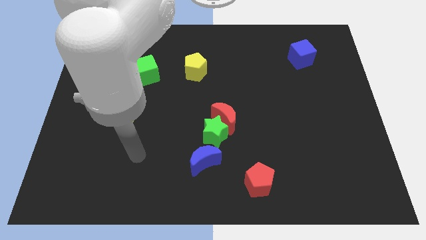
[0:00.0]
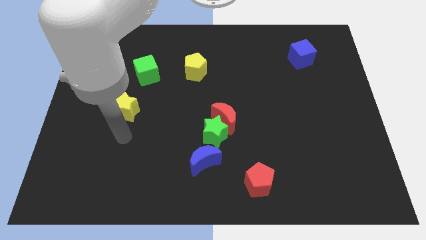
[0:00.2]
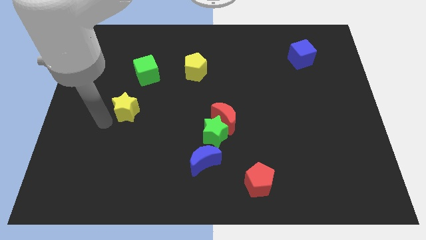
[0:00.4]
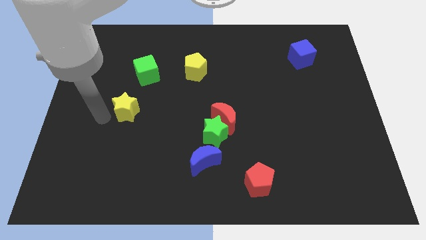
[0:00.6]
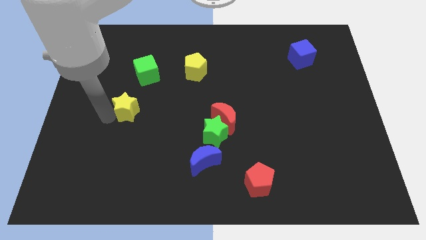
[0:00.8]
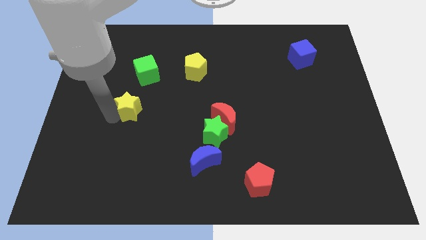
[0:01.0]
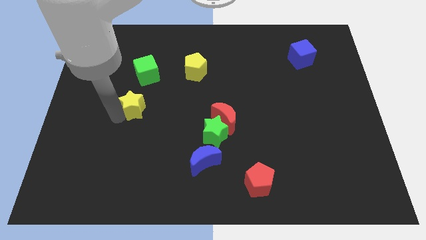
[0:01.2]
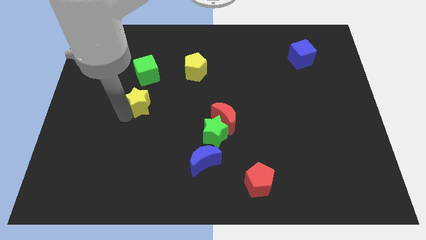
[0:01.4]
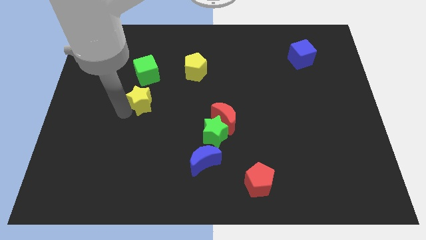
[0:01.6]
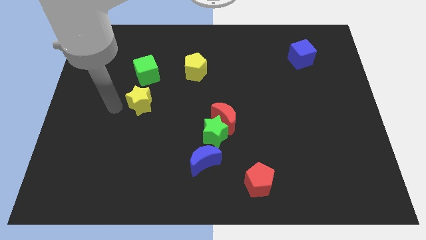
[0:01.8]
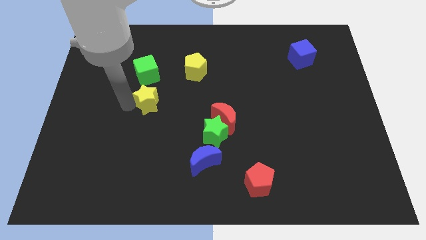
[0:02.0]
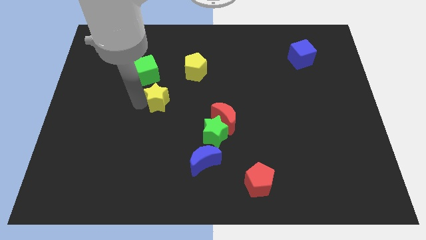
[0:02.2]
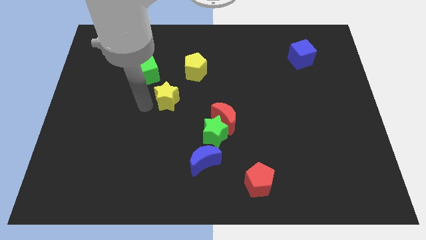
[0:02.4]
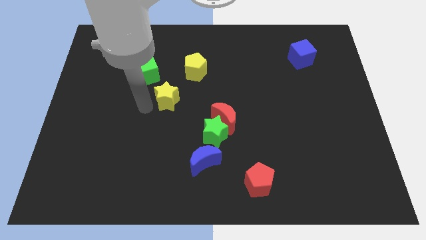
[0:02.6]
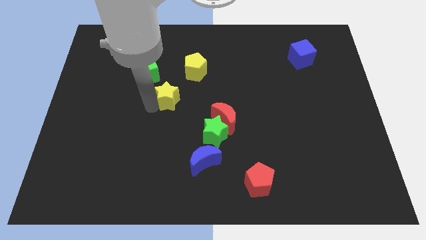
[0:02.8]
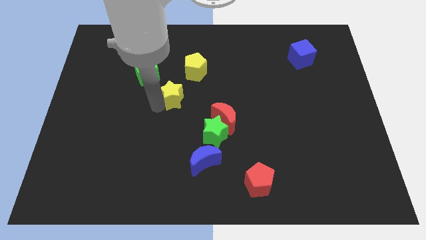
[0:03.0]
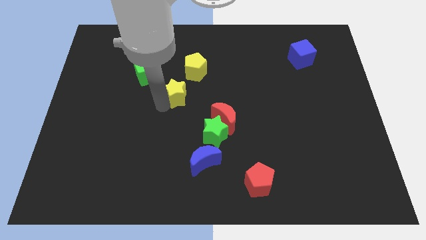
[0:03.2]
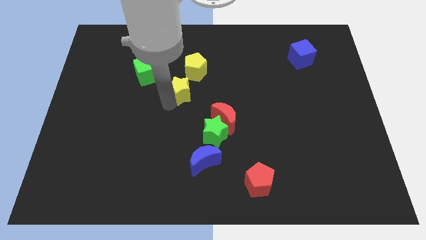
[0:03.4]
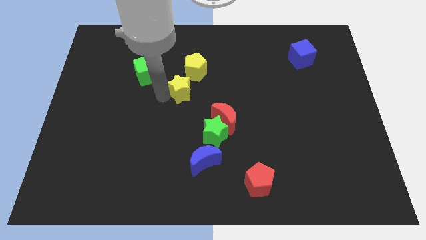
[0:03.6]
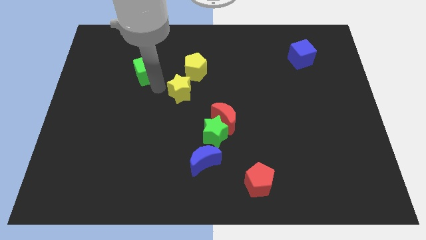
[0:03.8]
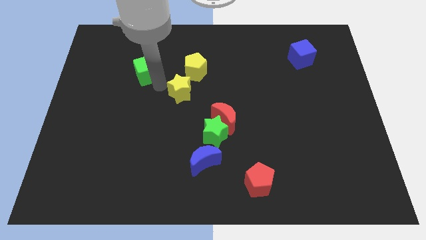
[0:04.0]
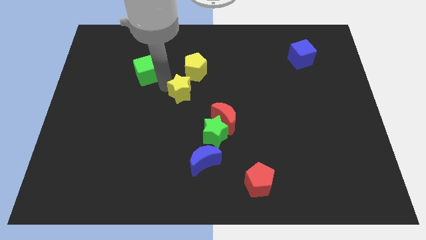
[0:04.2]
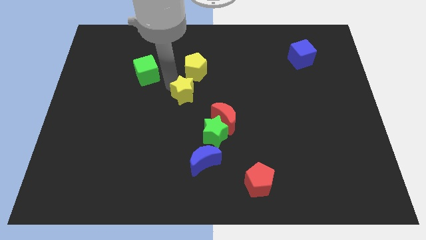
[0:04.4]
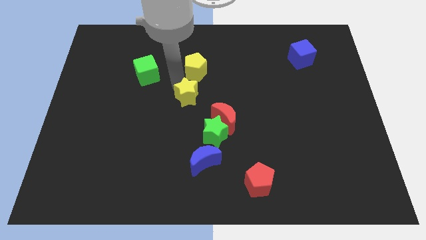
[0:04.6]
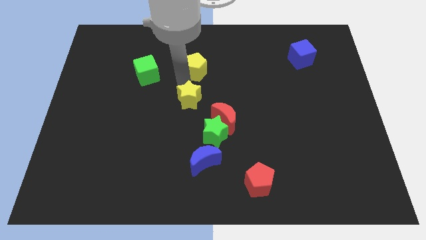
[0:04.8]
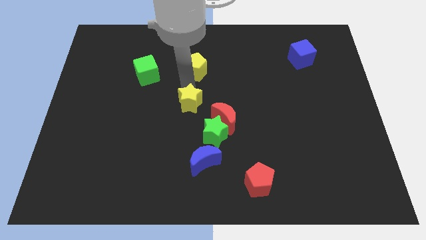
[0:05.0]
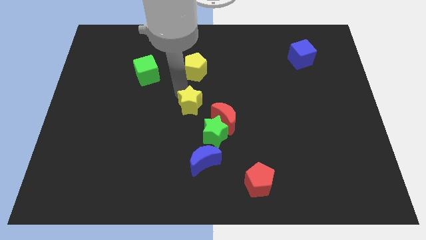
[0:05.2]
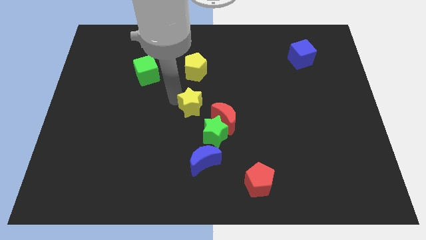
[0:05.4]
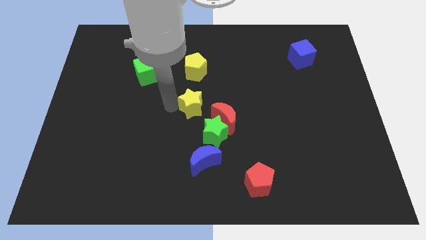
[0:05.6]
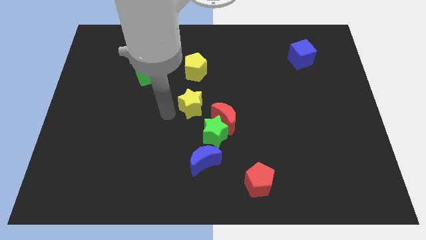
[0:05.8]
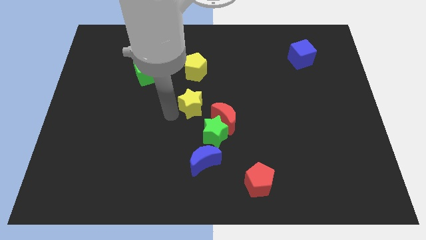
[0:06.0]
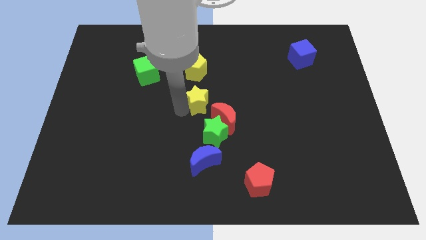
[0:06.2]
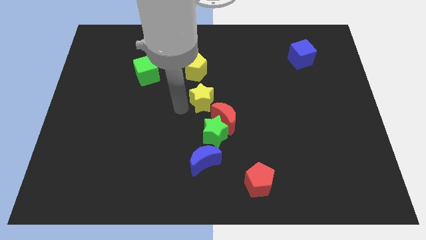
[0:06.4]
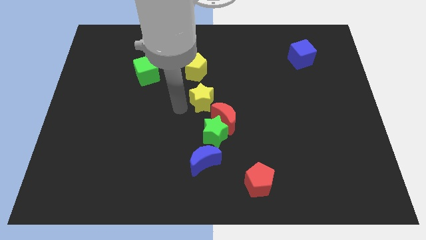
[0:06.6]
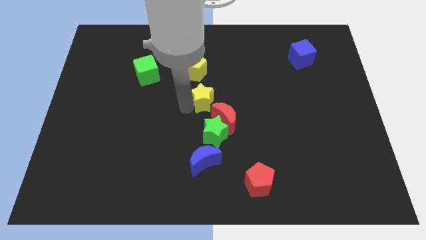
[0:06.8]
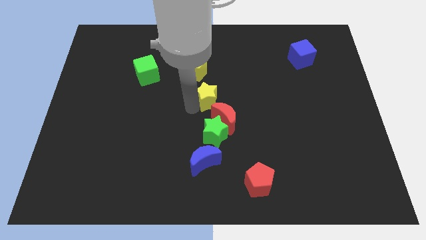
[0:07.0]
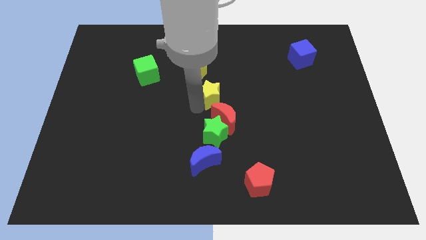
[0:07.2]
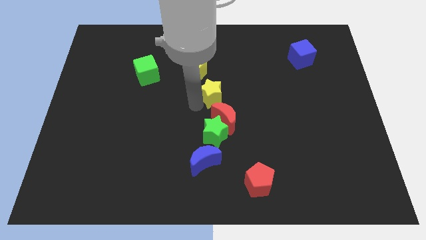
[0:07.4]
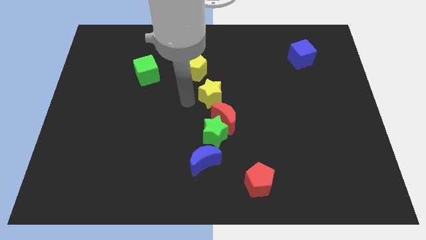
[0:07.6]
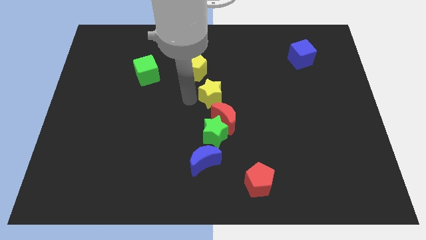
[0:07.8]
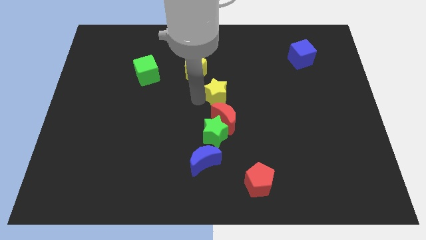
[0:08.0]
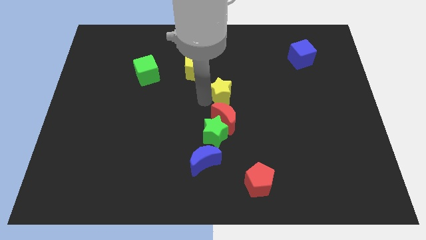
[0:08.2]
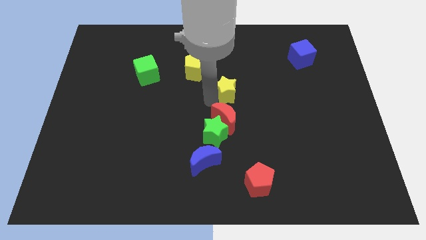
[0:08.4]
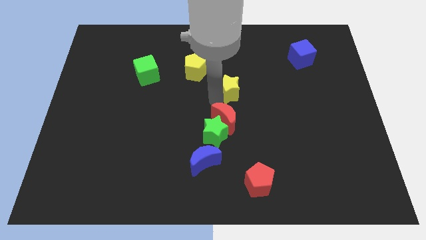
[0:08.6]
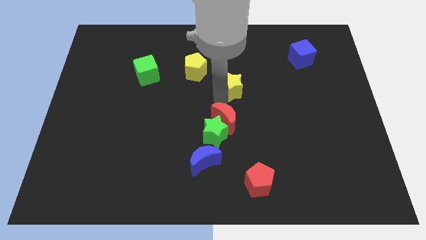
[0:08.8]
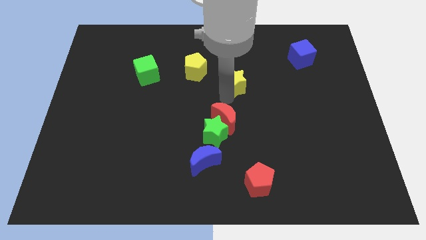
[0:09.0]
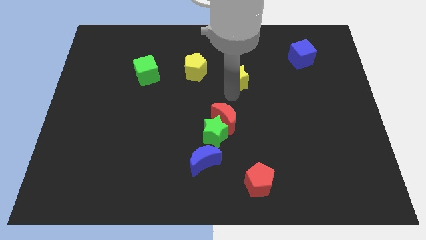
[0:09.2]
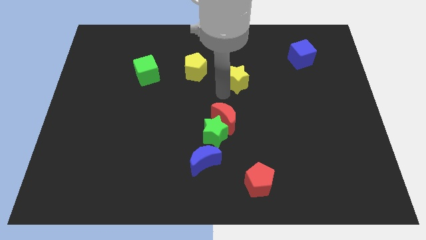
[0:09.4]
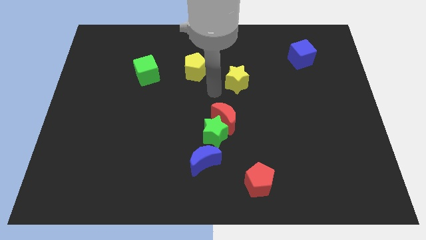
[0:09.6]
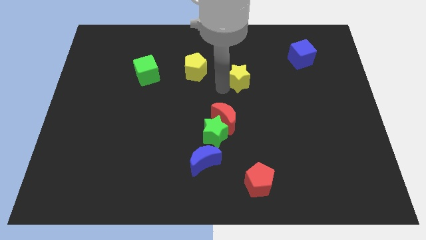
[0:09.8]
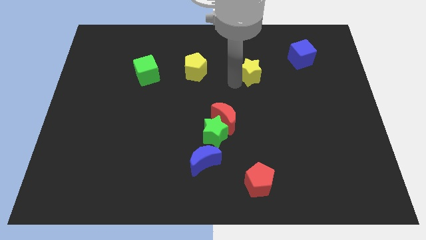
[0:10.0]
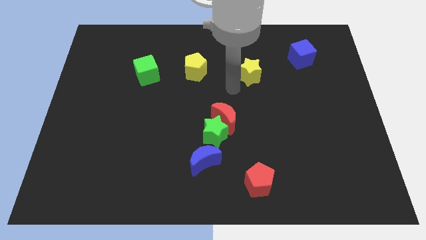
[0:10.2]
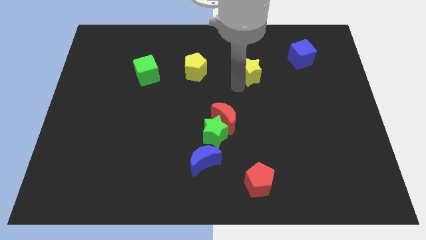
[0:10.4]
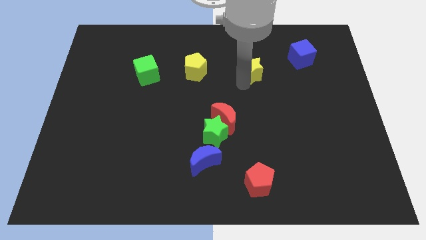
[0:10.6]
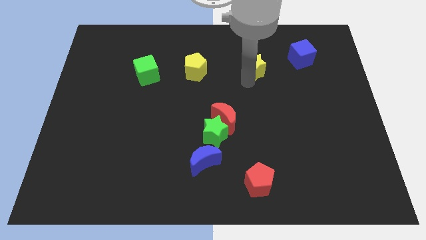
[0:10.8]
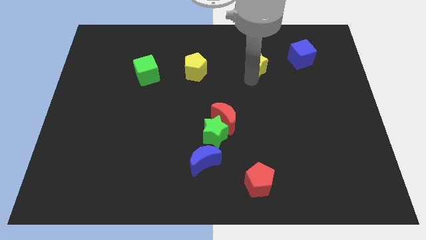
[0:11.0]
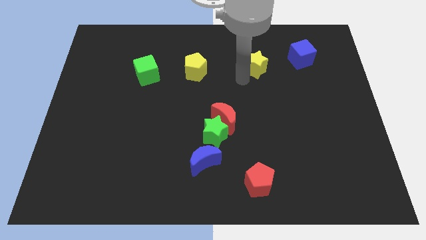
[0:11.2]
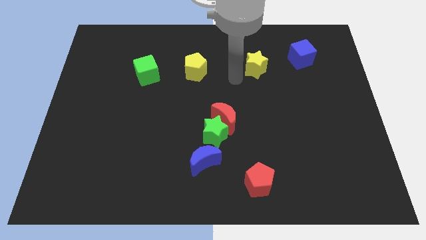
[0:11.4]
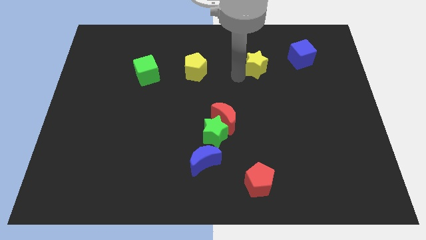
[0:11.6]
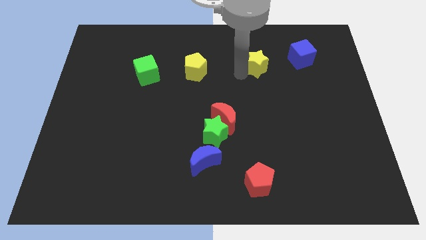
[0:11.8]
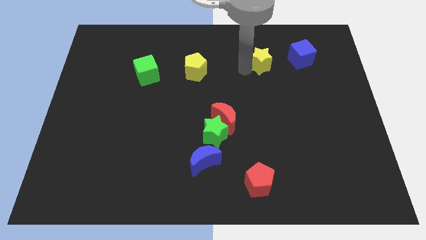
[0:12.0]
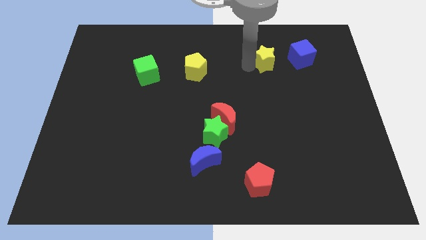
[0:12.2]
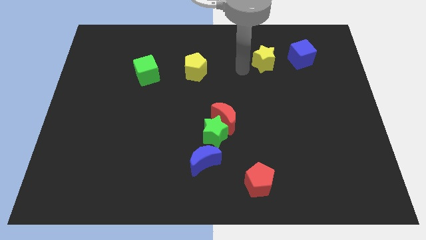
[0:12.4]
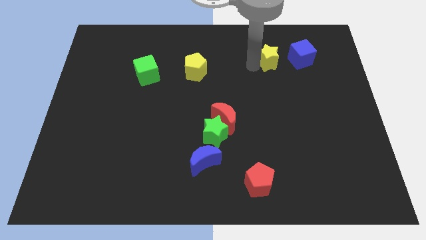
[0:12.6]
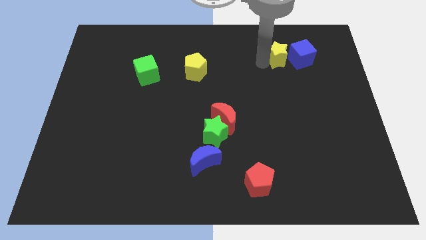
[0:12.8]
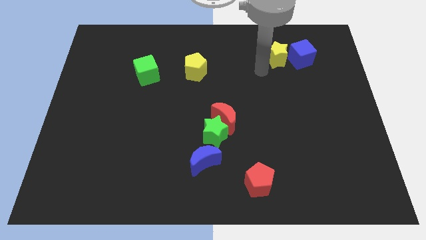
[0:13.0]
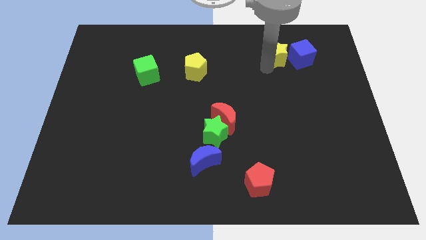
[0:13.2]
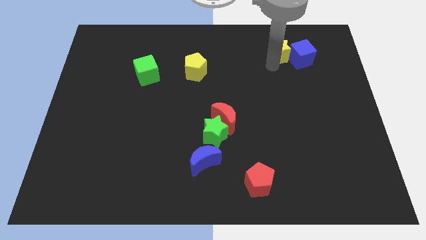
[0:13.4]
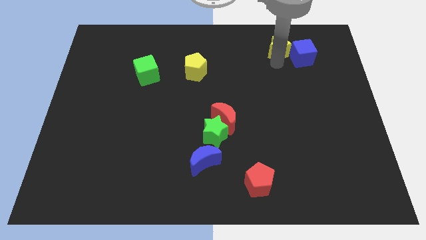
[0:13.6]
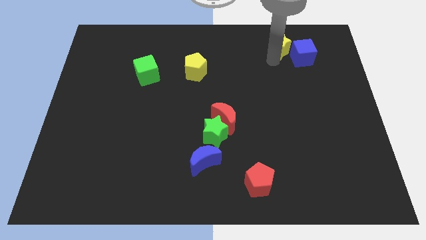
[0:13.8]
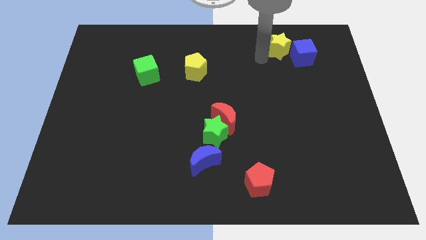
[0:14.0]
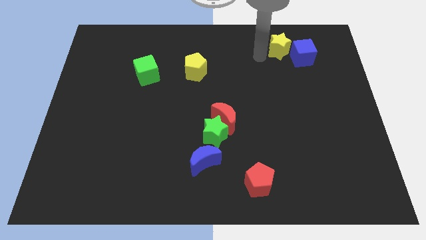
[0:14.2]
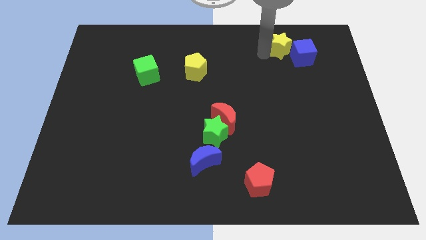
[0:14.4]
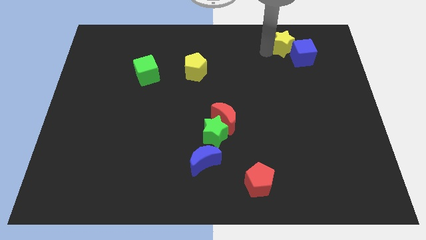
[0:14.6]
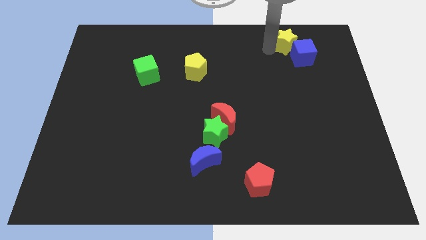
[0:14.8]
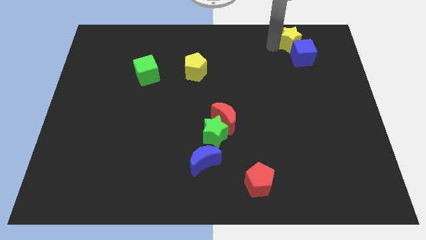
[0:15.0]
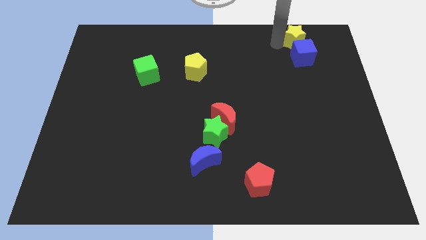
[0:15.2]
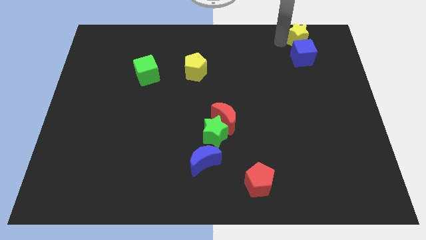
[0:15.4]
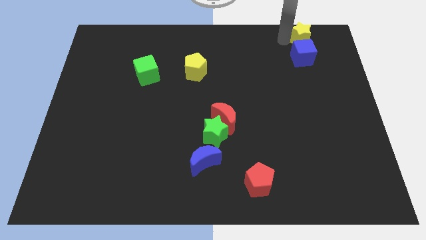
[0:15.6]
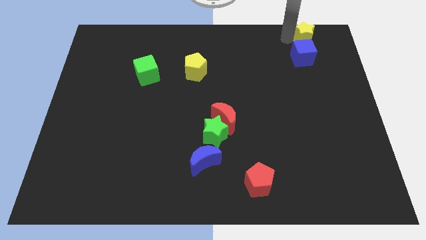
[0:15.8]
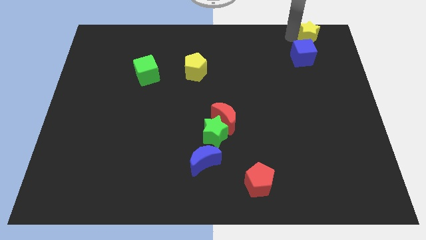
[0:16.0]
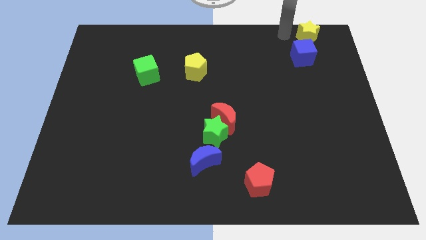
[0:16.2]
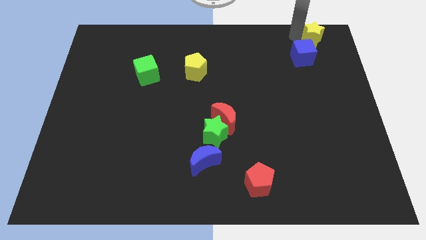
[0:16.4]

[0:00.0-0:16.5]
put the yellow star to the upper right corner
